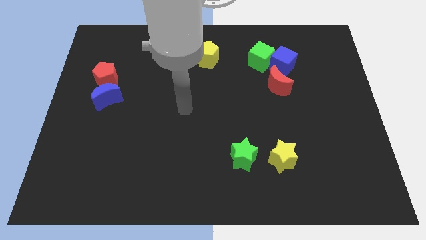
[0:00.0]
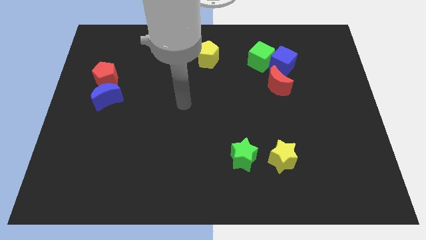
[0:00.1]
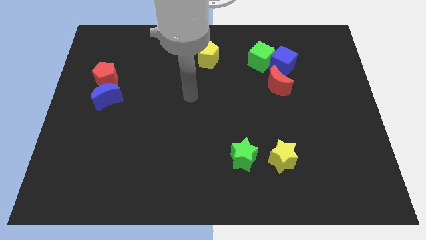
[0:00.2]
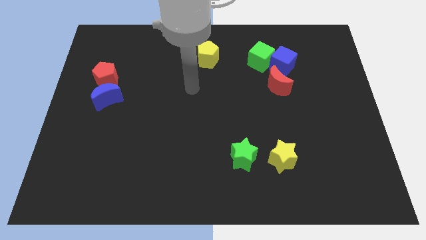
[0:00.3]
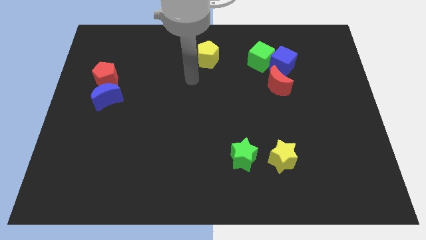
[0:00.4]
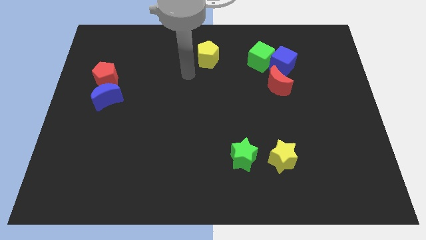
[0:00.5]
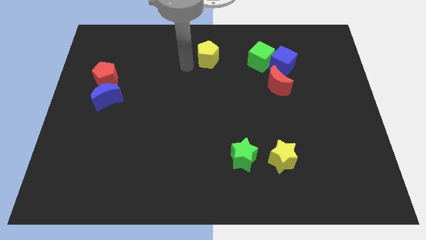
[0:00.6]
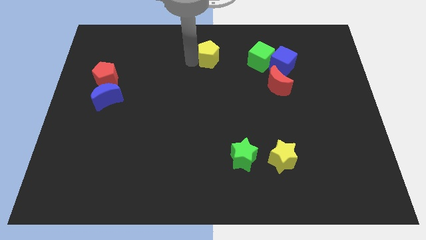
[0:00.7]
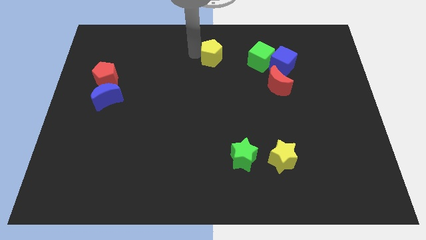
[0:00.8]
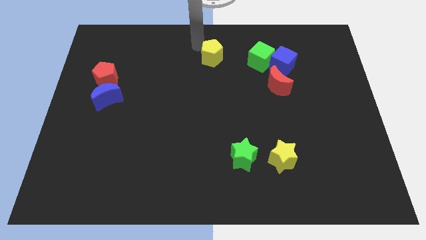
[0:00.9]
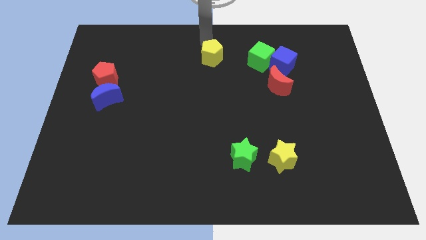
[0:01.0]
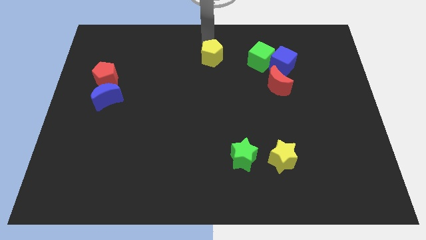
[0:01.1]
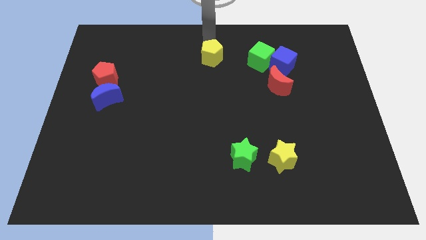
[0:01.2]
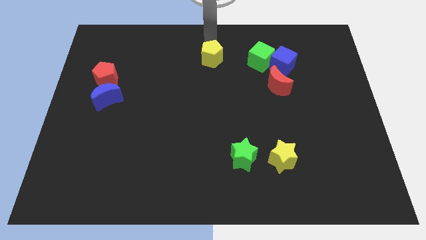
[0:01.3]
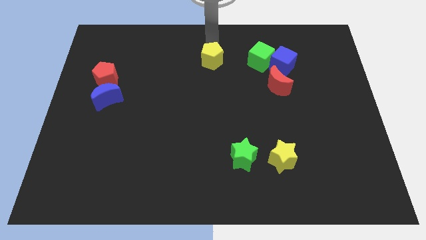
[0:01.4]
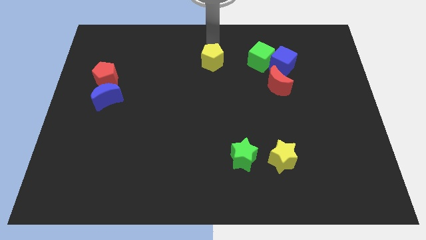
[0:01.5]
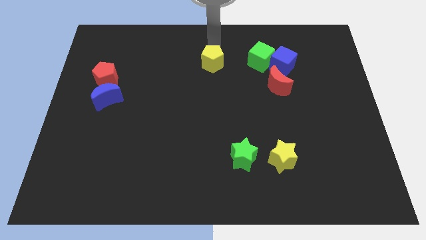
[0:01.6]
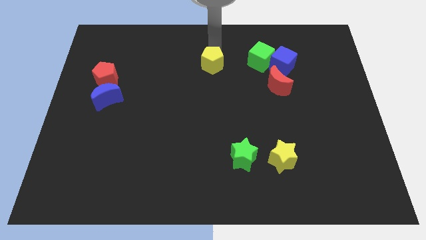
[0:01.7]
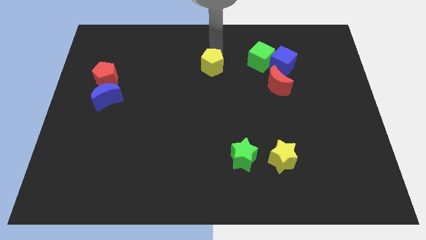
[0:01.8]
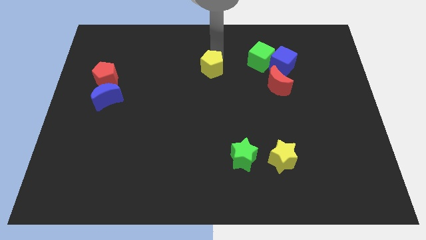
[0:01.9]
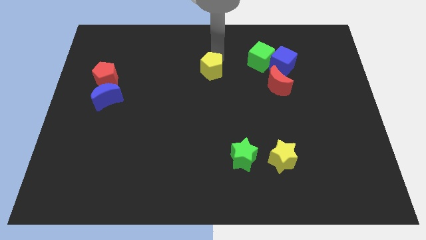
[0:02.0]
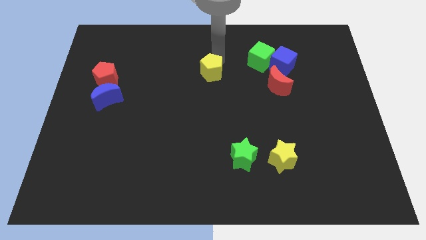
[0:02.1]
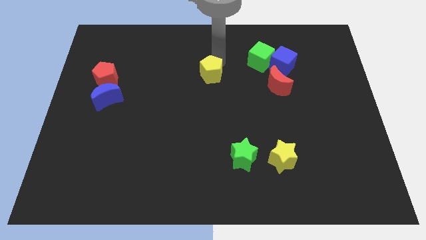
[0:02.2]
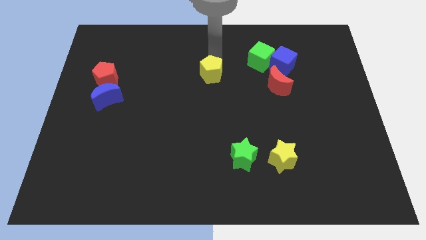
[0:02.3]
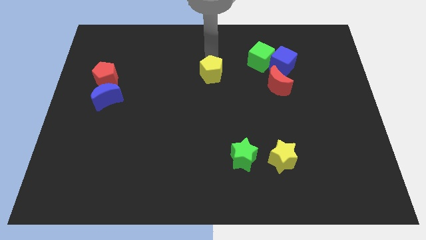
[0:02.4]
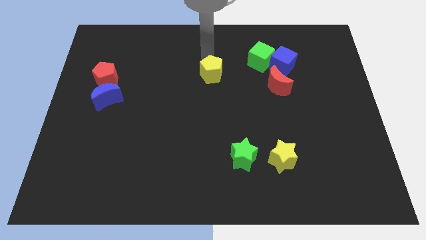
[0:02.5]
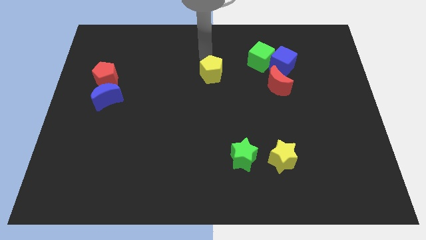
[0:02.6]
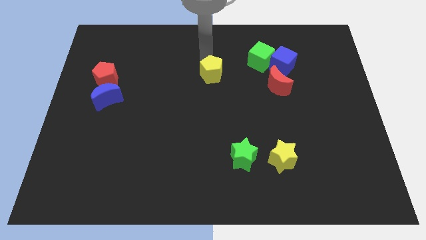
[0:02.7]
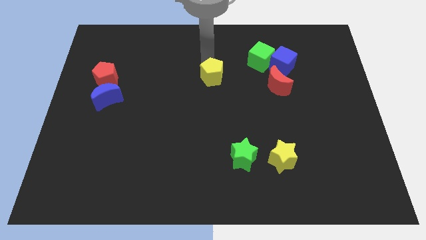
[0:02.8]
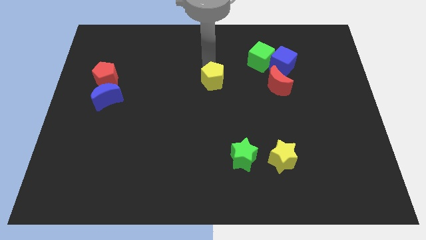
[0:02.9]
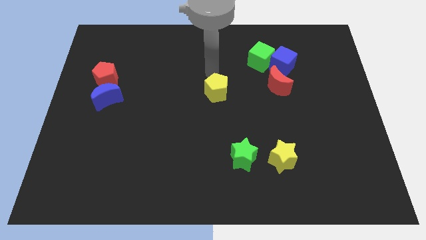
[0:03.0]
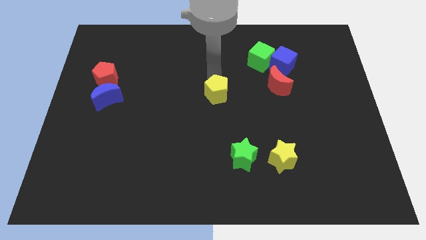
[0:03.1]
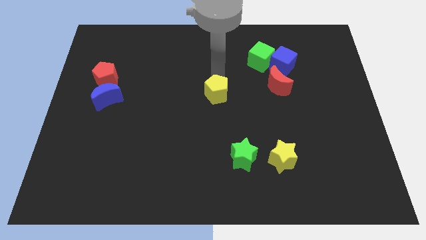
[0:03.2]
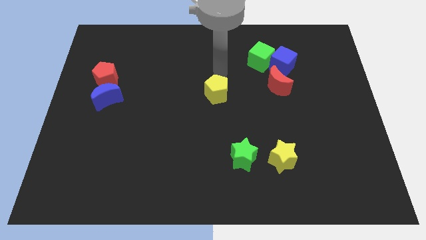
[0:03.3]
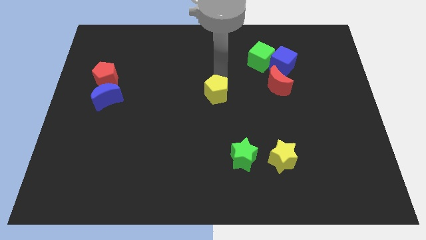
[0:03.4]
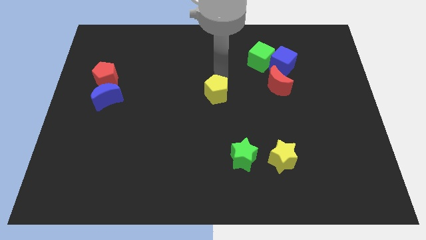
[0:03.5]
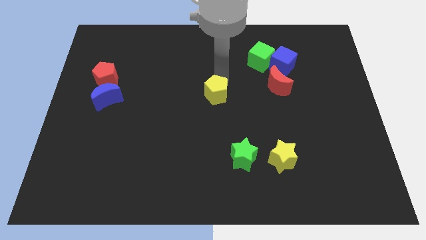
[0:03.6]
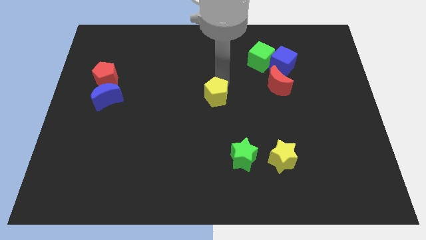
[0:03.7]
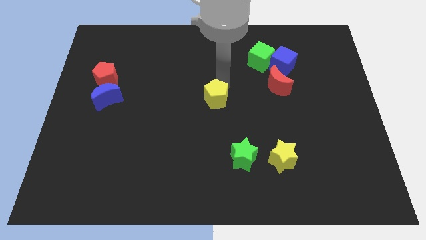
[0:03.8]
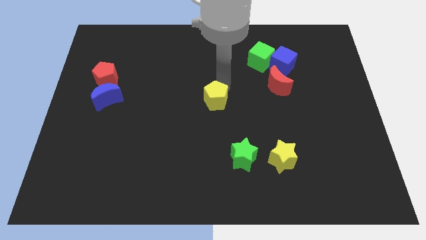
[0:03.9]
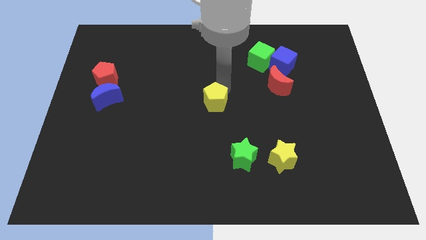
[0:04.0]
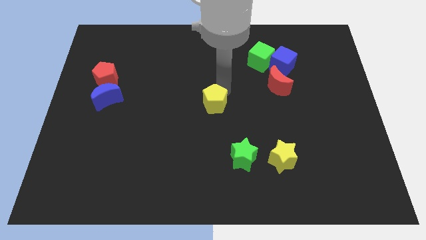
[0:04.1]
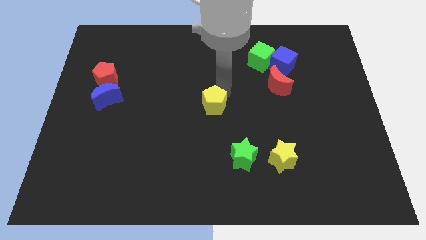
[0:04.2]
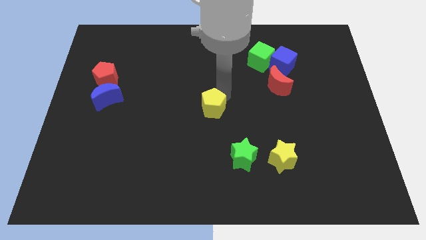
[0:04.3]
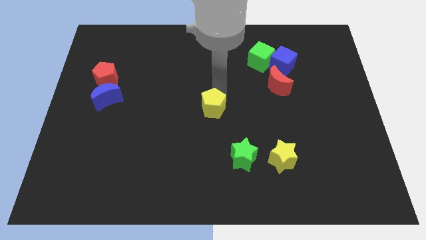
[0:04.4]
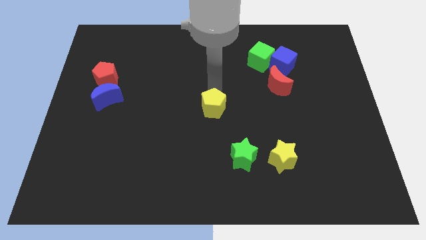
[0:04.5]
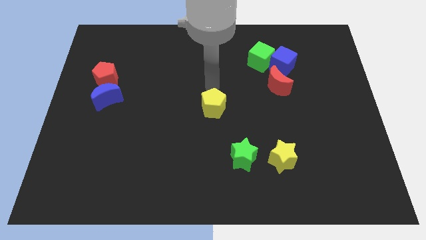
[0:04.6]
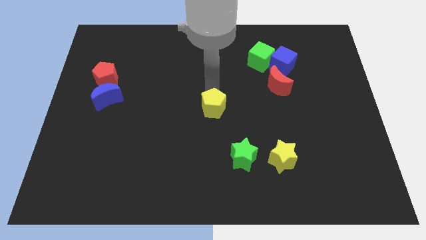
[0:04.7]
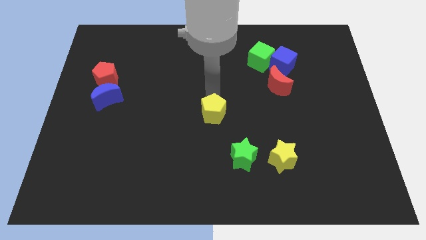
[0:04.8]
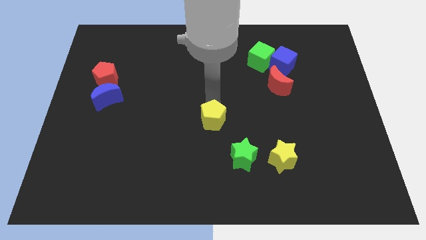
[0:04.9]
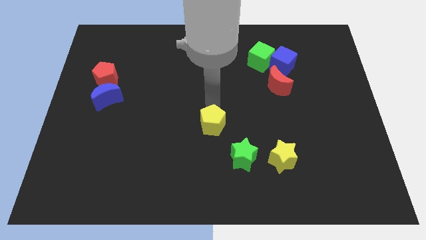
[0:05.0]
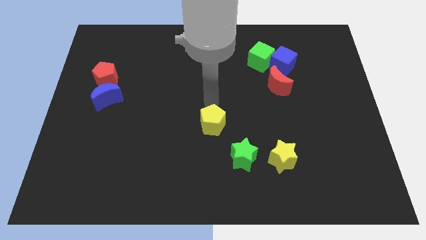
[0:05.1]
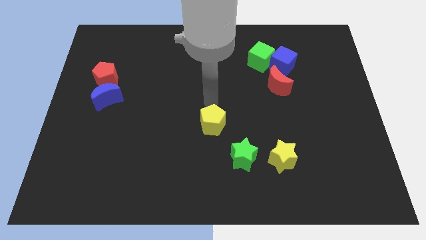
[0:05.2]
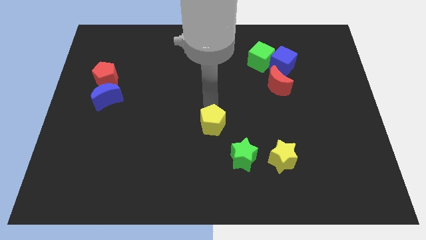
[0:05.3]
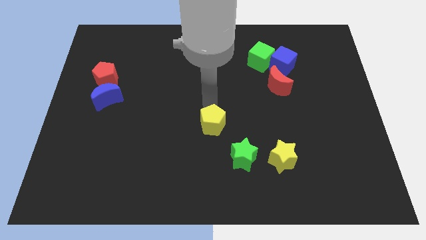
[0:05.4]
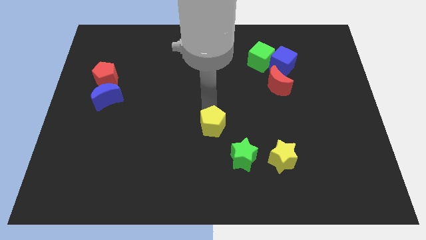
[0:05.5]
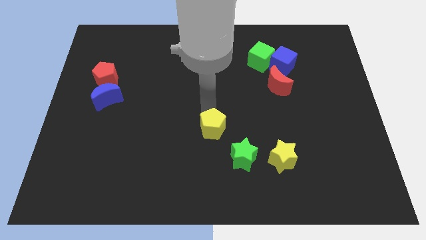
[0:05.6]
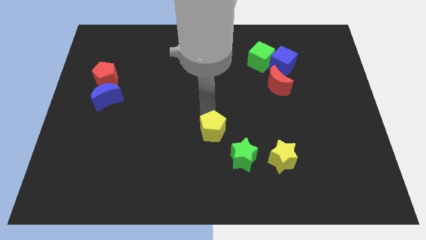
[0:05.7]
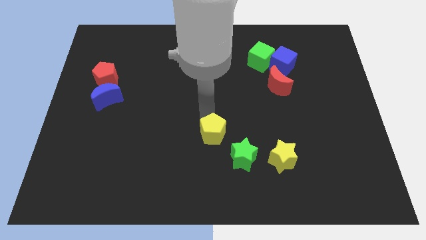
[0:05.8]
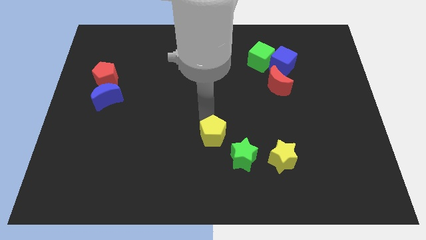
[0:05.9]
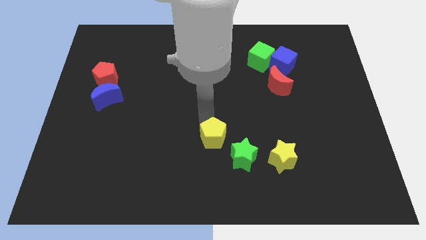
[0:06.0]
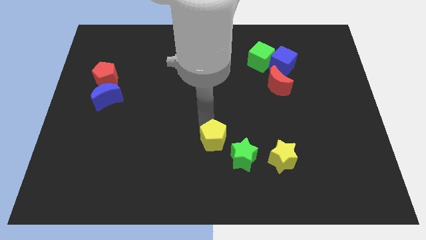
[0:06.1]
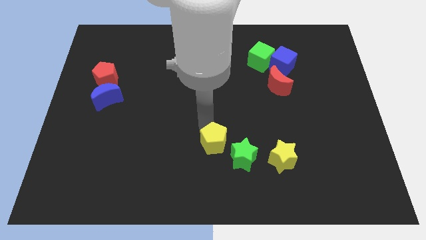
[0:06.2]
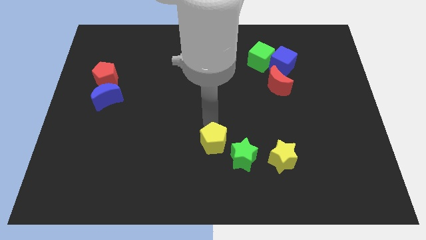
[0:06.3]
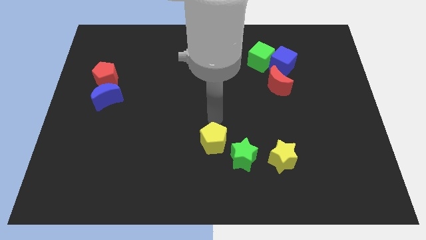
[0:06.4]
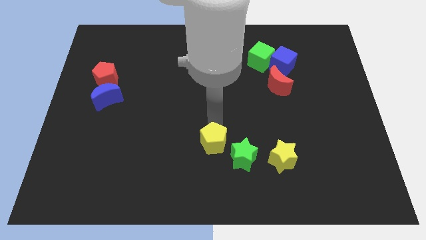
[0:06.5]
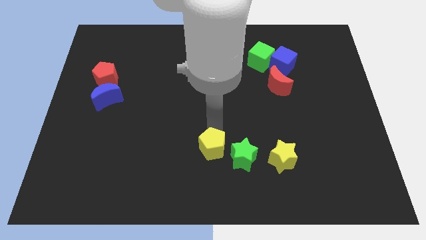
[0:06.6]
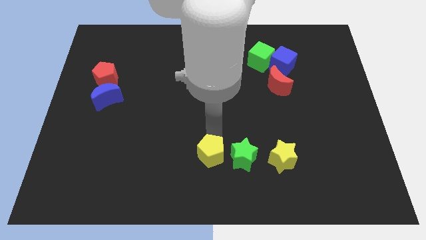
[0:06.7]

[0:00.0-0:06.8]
push the yellow pentagon to the bottom
